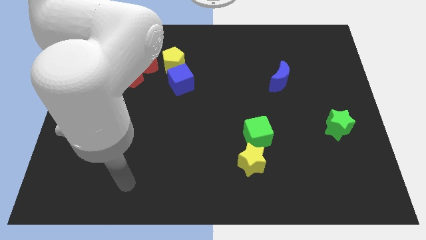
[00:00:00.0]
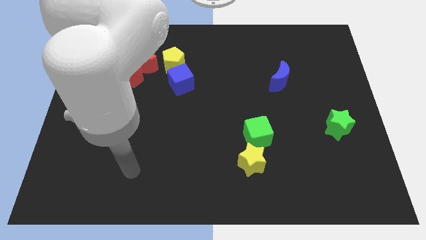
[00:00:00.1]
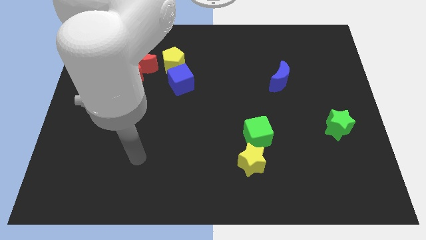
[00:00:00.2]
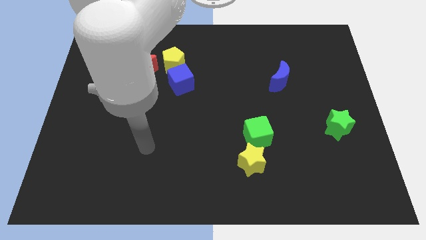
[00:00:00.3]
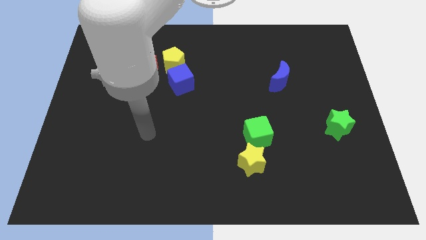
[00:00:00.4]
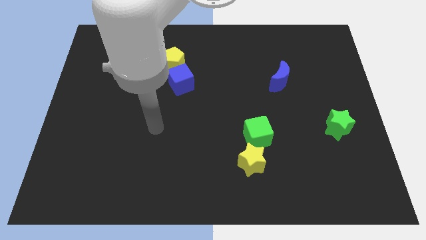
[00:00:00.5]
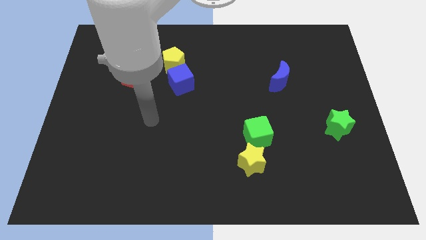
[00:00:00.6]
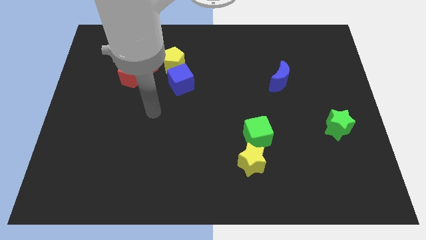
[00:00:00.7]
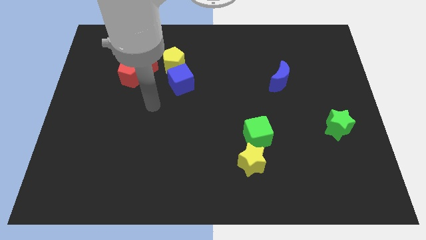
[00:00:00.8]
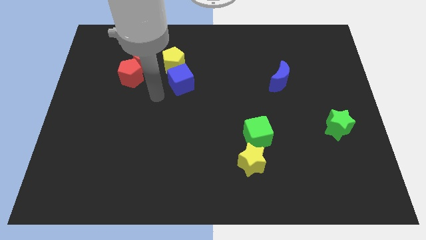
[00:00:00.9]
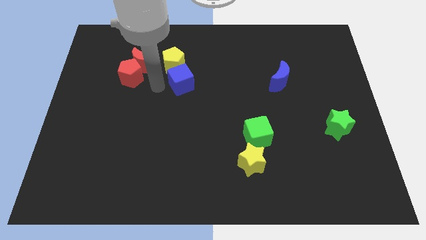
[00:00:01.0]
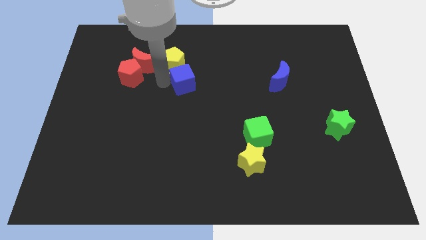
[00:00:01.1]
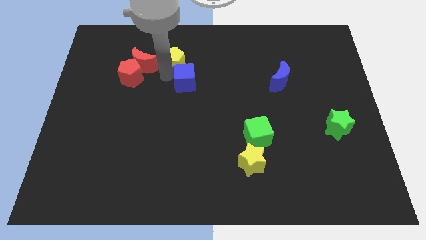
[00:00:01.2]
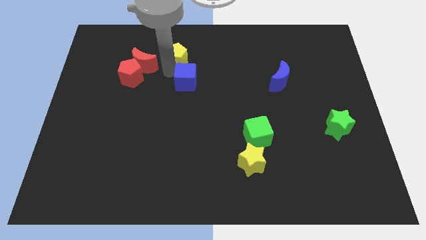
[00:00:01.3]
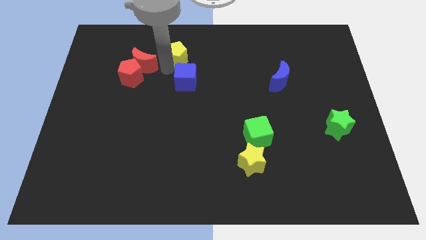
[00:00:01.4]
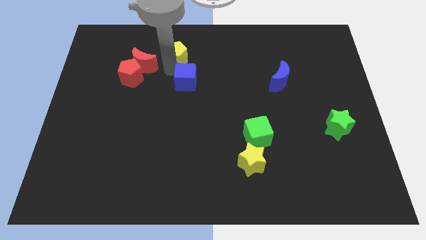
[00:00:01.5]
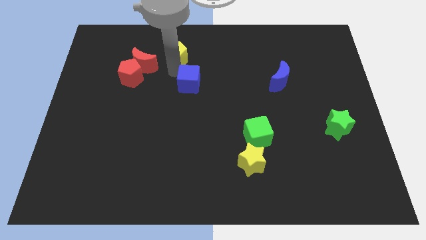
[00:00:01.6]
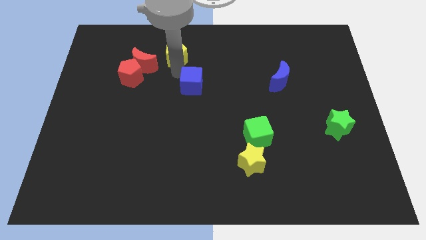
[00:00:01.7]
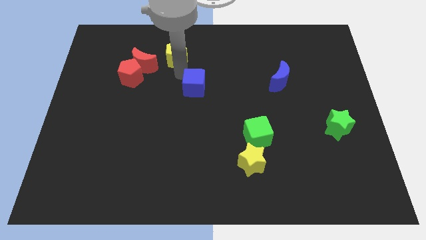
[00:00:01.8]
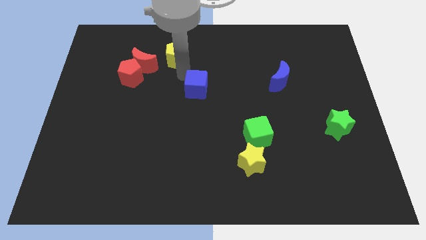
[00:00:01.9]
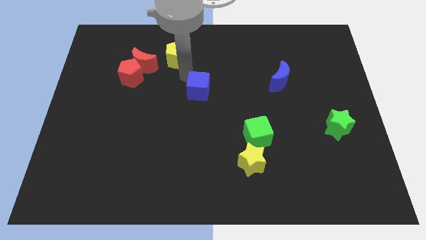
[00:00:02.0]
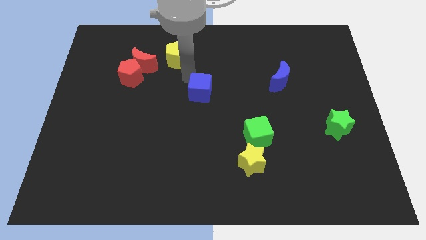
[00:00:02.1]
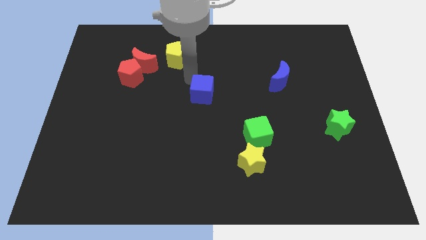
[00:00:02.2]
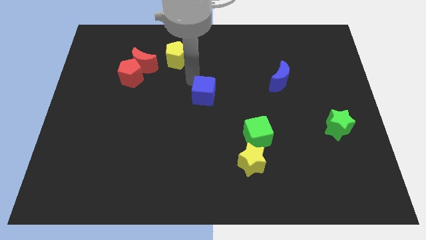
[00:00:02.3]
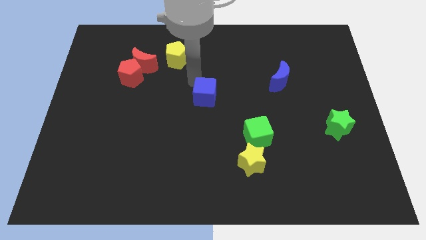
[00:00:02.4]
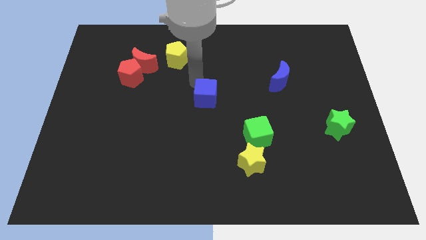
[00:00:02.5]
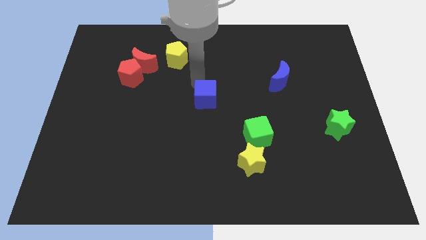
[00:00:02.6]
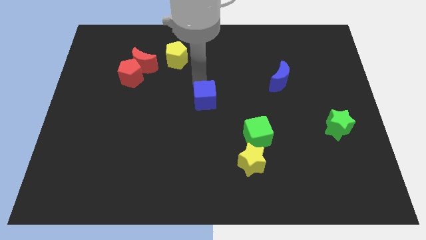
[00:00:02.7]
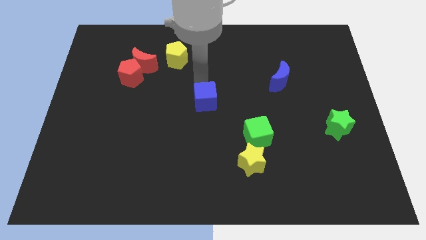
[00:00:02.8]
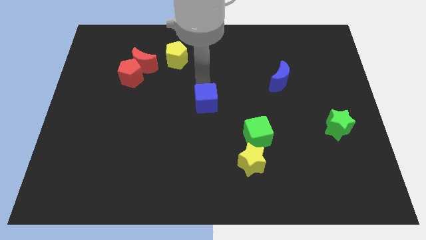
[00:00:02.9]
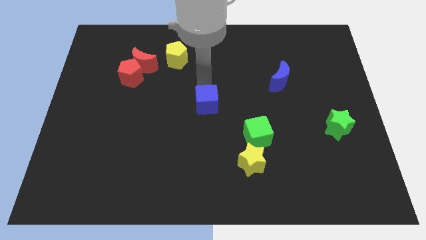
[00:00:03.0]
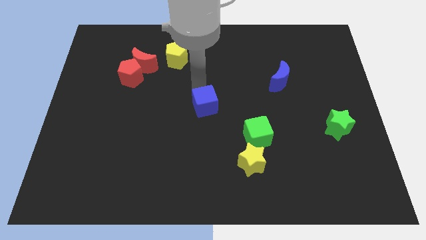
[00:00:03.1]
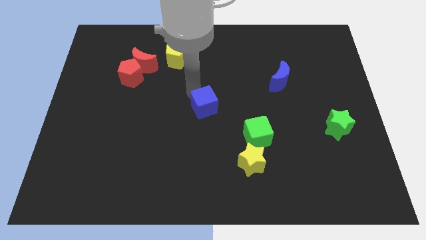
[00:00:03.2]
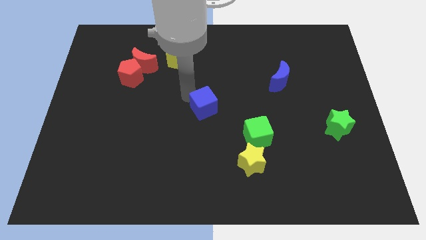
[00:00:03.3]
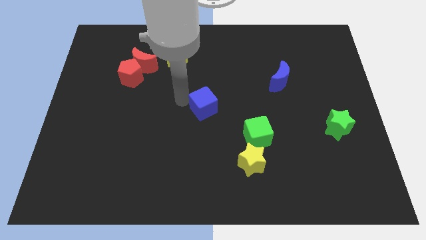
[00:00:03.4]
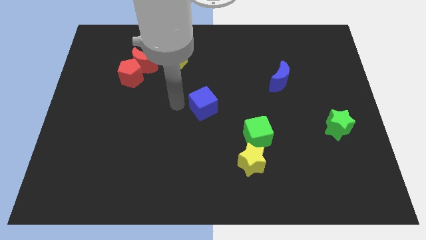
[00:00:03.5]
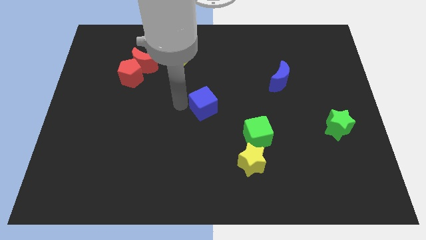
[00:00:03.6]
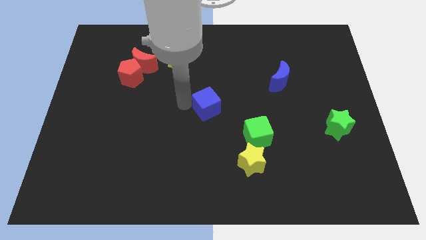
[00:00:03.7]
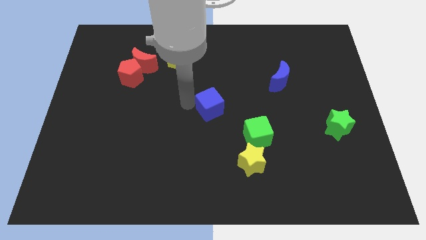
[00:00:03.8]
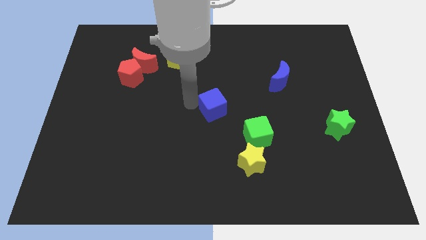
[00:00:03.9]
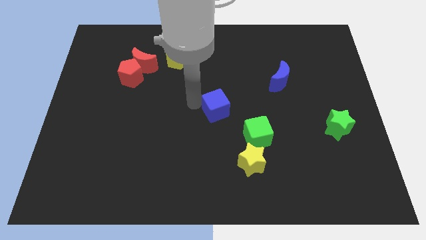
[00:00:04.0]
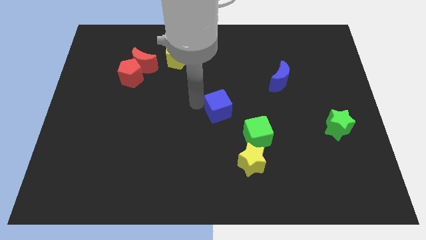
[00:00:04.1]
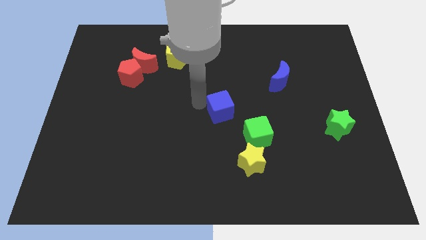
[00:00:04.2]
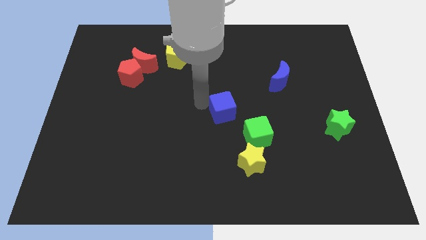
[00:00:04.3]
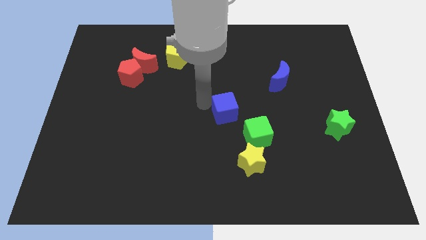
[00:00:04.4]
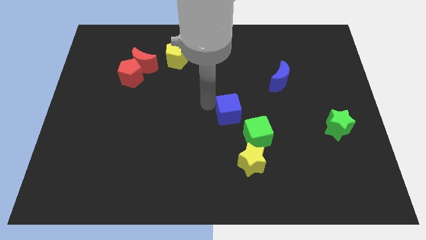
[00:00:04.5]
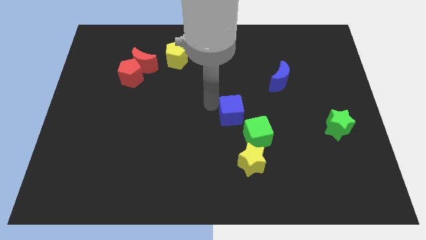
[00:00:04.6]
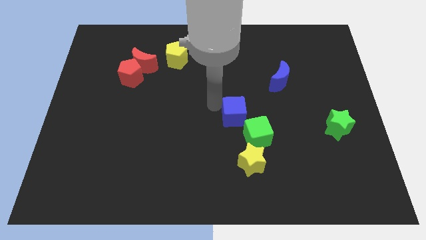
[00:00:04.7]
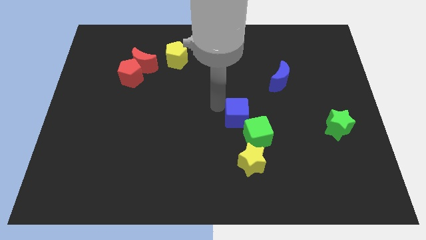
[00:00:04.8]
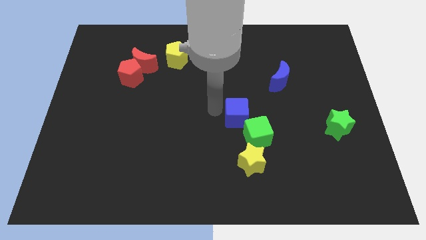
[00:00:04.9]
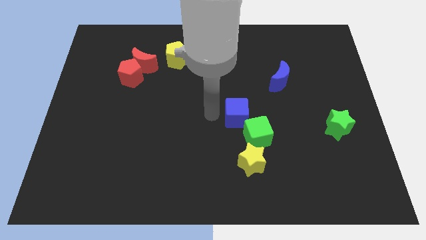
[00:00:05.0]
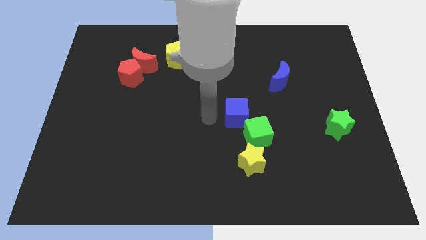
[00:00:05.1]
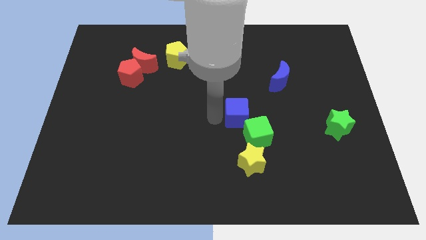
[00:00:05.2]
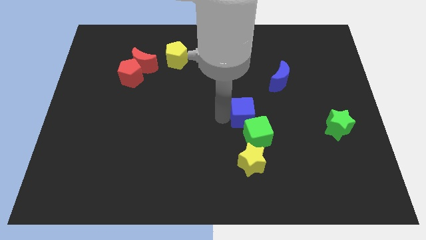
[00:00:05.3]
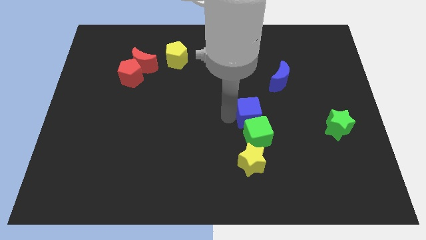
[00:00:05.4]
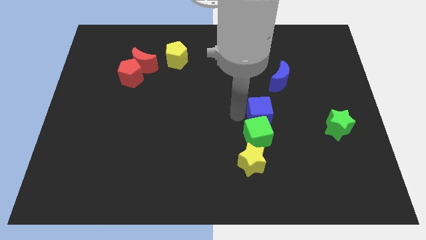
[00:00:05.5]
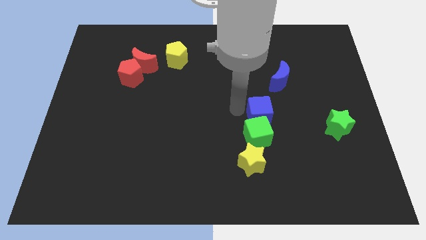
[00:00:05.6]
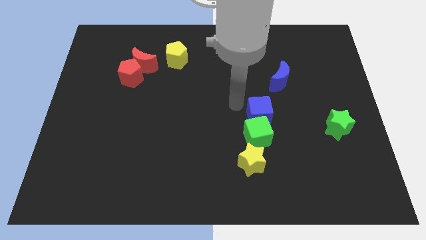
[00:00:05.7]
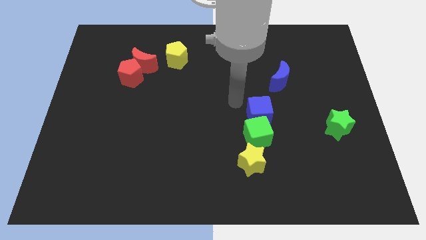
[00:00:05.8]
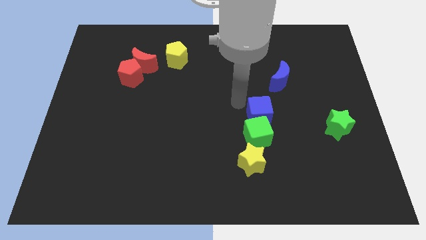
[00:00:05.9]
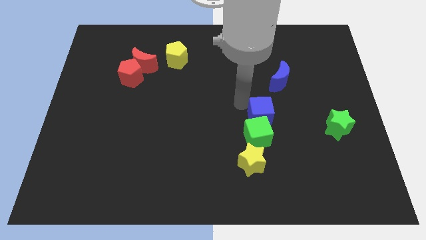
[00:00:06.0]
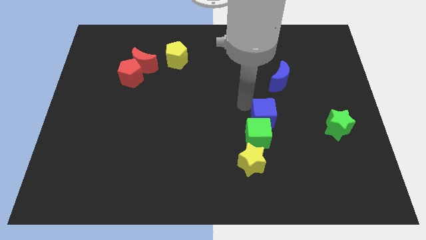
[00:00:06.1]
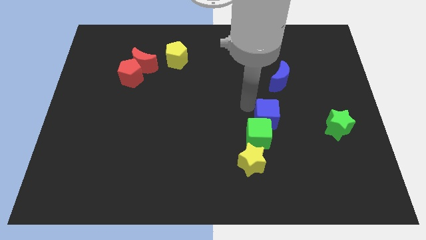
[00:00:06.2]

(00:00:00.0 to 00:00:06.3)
push the blue cube downwards and then to the right

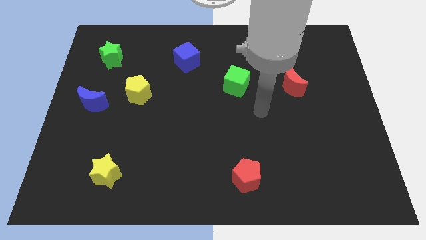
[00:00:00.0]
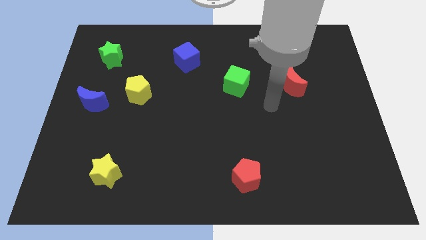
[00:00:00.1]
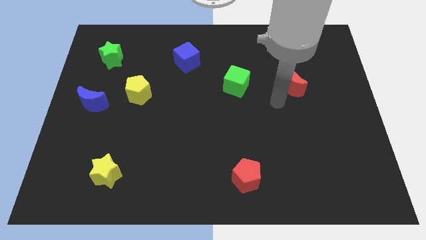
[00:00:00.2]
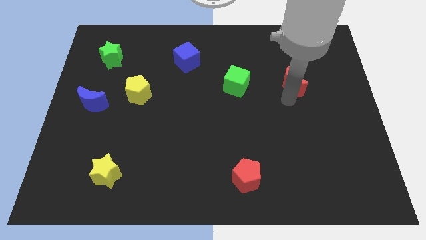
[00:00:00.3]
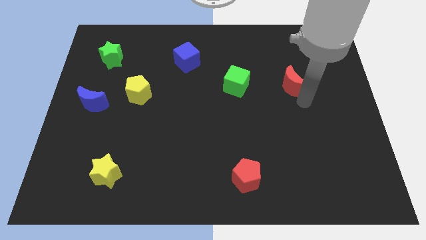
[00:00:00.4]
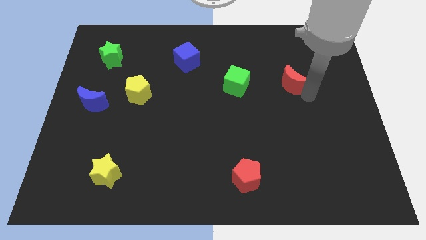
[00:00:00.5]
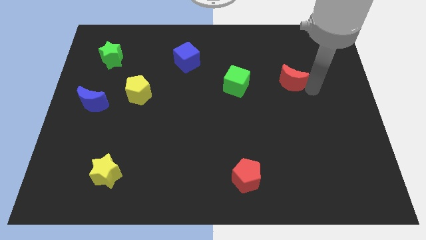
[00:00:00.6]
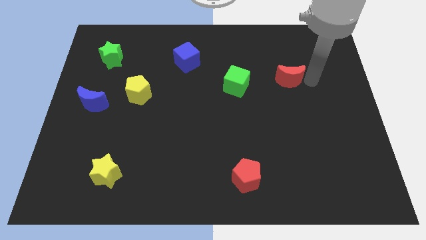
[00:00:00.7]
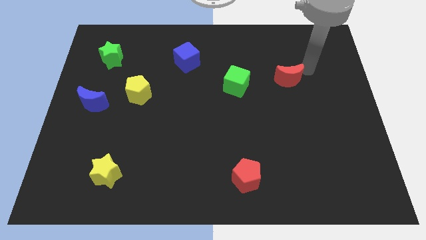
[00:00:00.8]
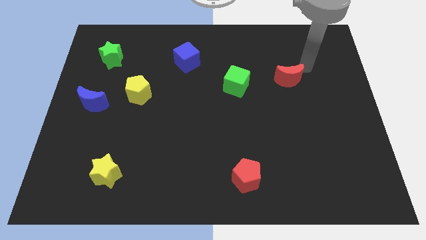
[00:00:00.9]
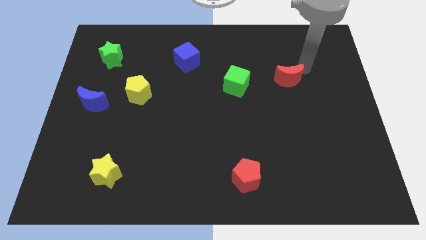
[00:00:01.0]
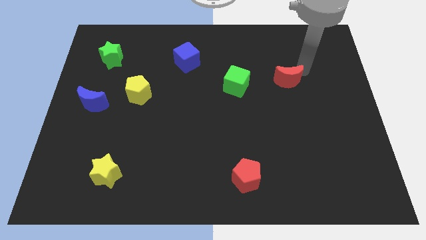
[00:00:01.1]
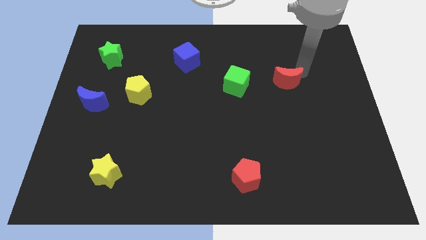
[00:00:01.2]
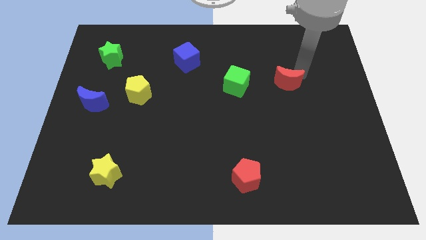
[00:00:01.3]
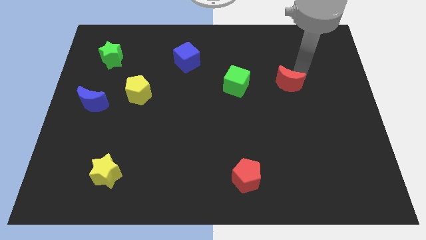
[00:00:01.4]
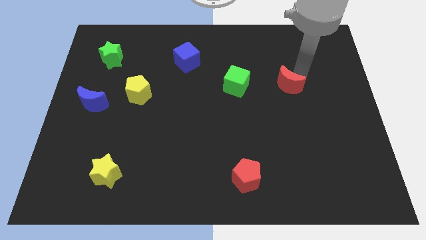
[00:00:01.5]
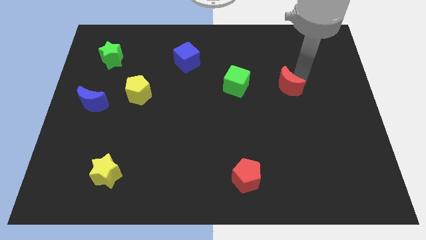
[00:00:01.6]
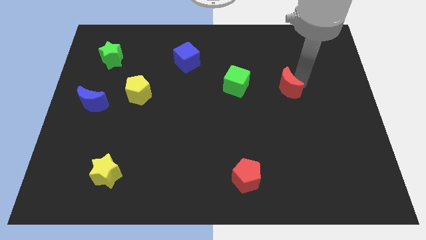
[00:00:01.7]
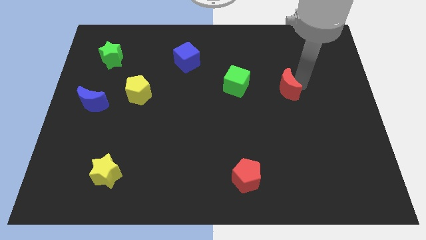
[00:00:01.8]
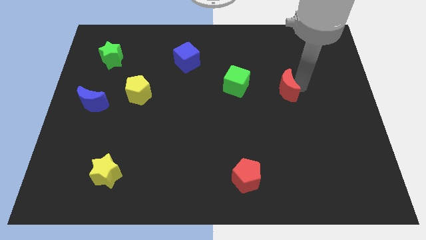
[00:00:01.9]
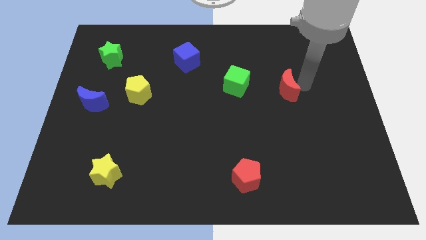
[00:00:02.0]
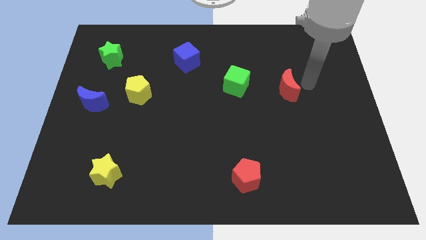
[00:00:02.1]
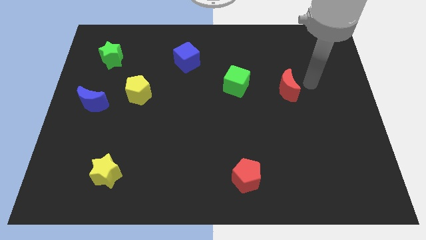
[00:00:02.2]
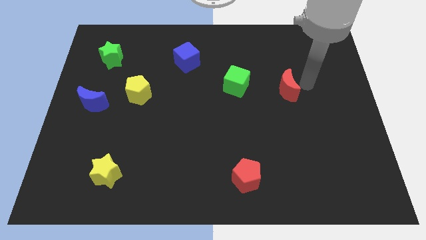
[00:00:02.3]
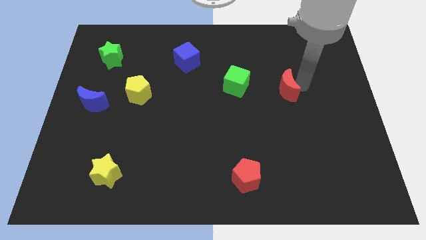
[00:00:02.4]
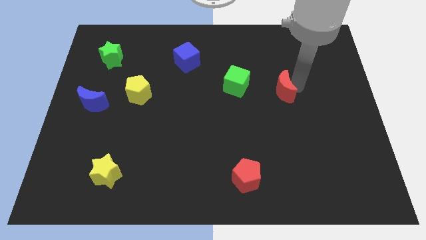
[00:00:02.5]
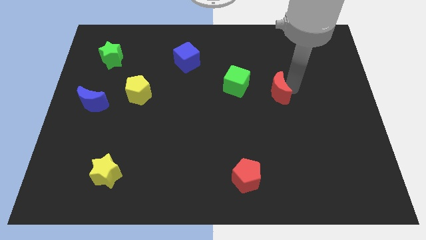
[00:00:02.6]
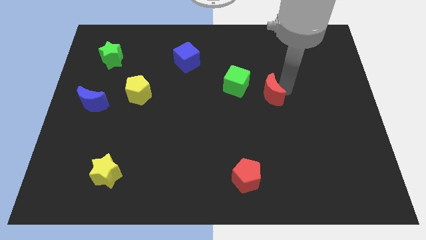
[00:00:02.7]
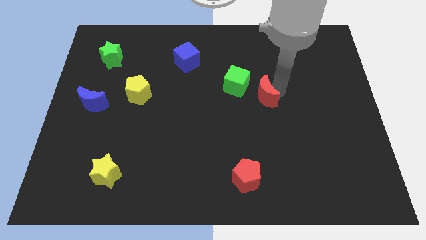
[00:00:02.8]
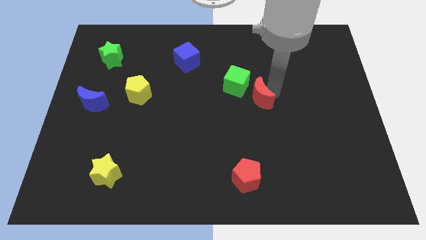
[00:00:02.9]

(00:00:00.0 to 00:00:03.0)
move the red moon left a little
